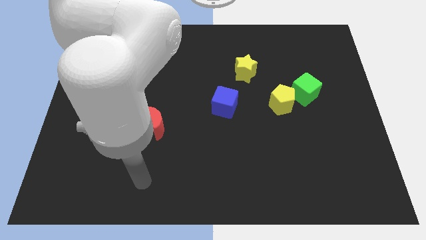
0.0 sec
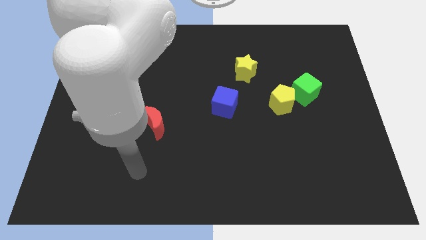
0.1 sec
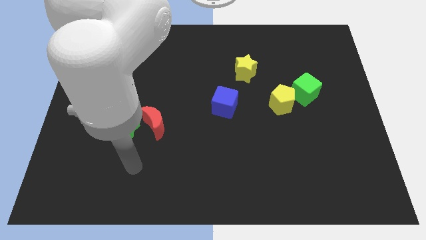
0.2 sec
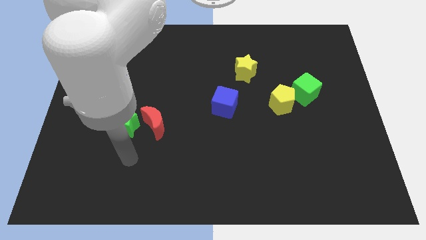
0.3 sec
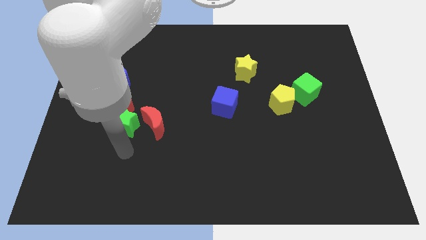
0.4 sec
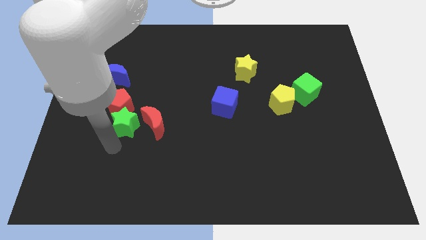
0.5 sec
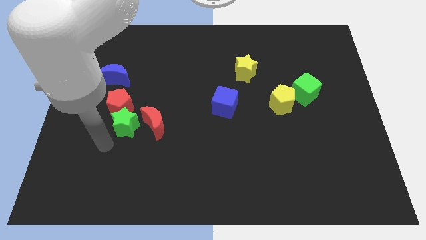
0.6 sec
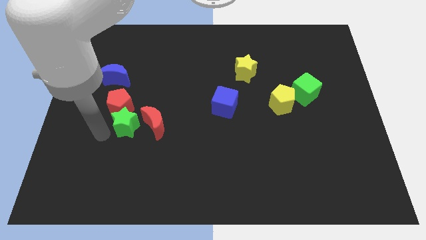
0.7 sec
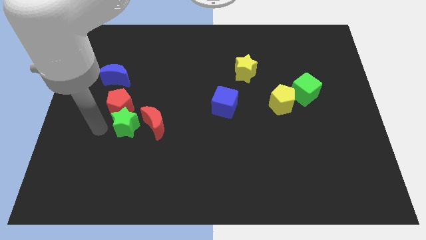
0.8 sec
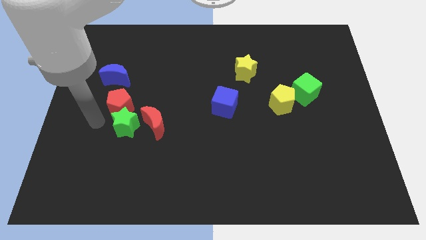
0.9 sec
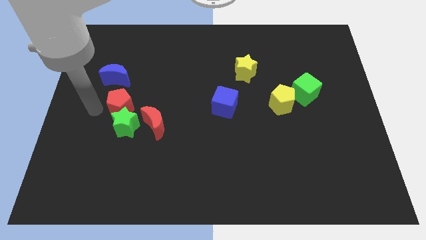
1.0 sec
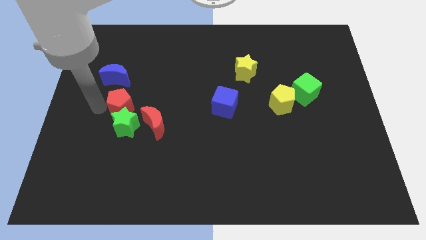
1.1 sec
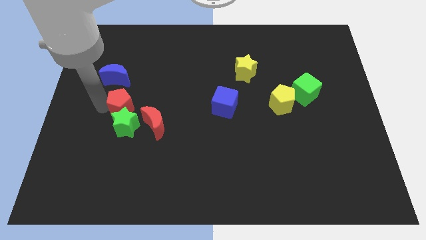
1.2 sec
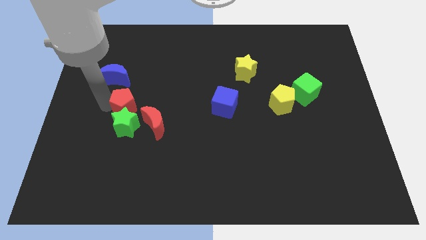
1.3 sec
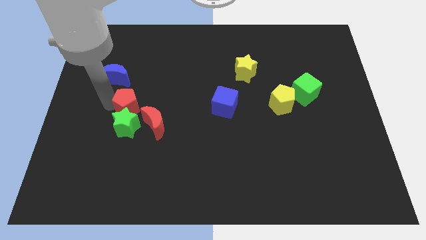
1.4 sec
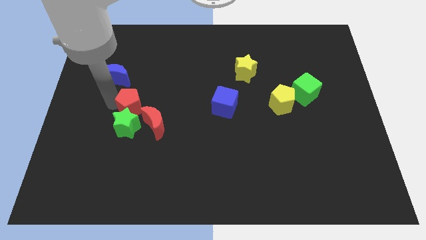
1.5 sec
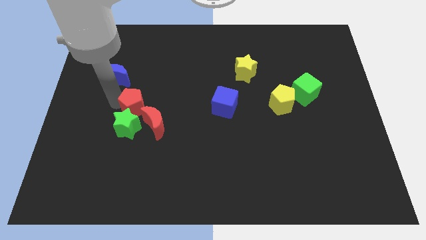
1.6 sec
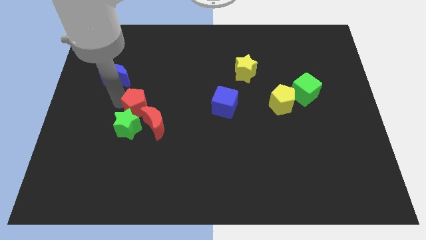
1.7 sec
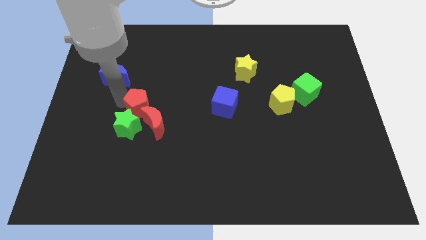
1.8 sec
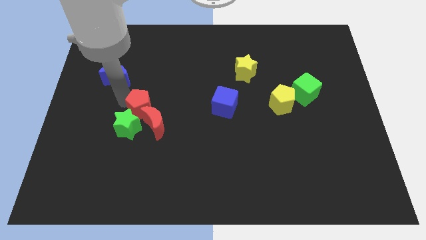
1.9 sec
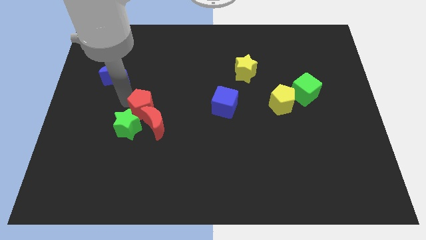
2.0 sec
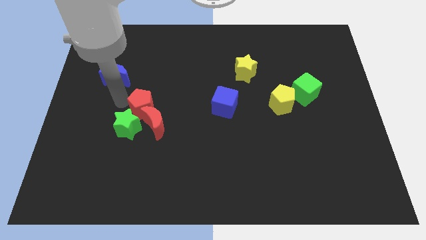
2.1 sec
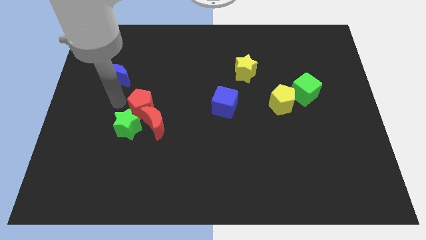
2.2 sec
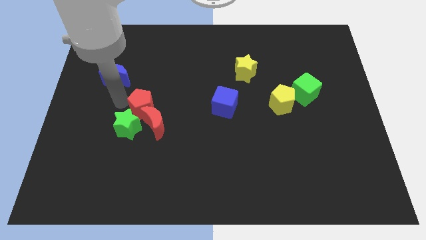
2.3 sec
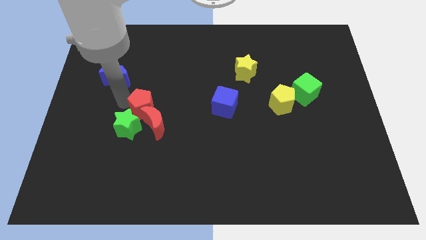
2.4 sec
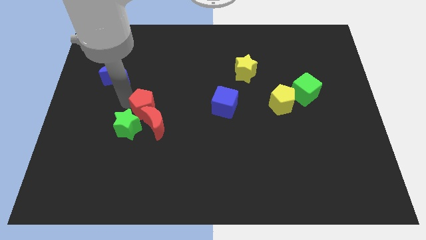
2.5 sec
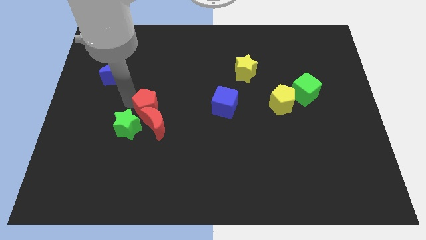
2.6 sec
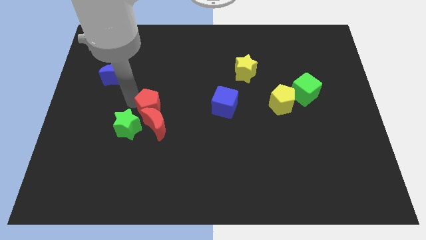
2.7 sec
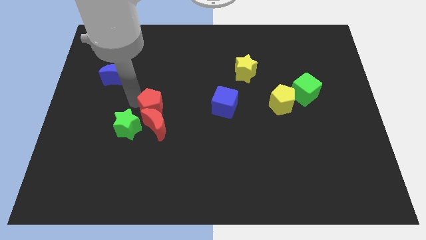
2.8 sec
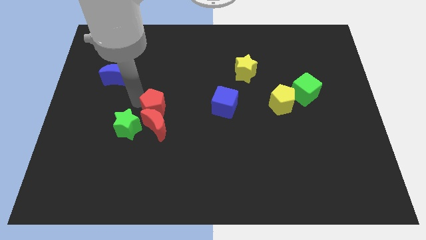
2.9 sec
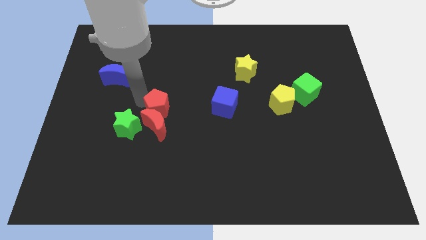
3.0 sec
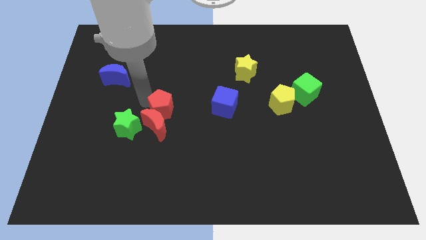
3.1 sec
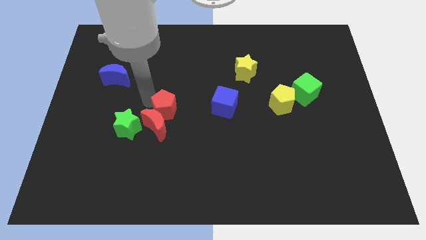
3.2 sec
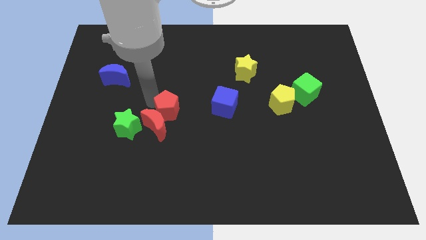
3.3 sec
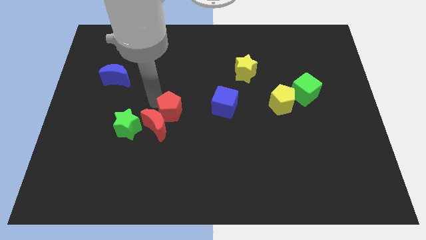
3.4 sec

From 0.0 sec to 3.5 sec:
push the red pentagon a little downwards and then right

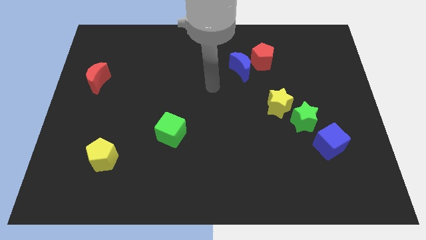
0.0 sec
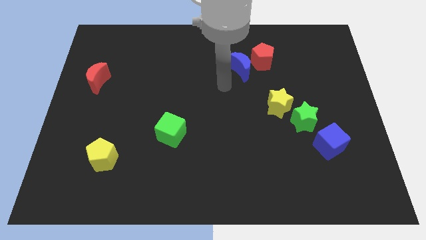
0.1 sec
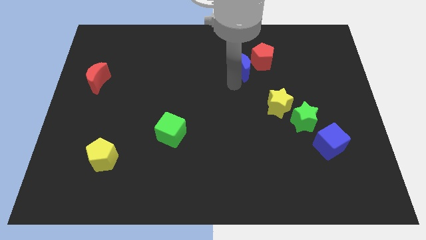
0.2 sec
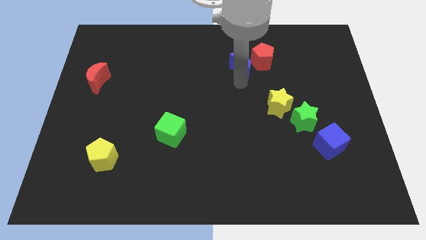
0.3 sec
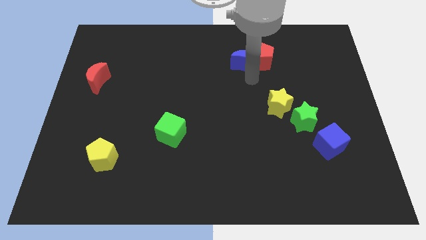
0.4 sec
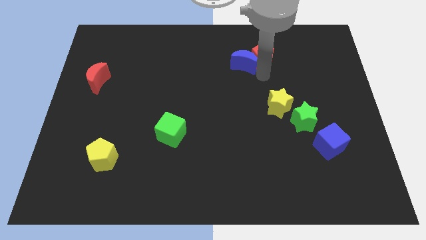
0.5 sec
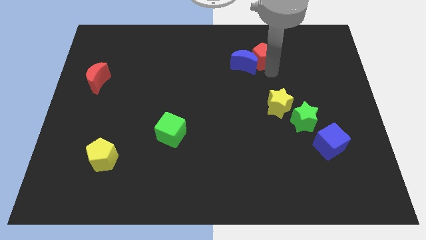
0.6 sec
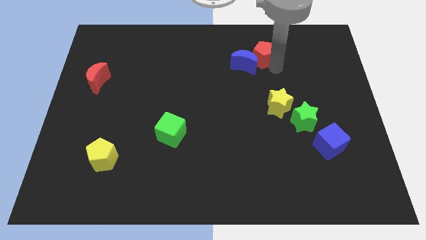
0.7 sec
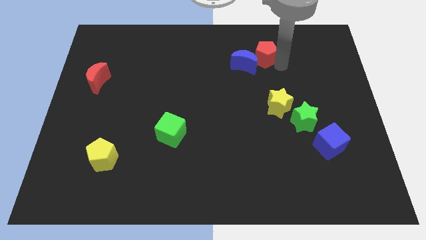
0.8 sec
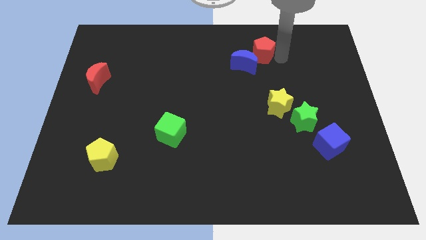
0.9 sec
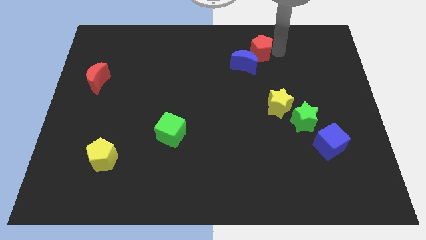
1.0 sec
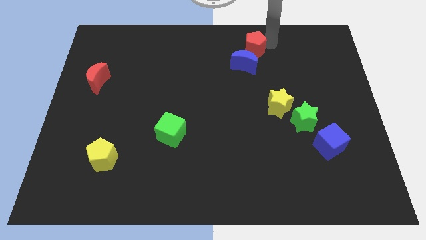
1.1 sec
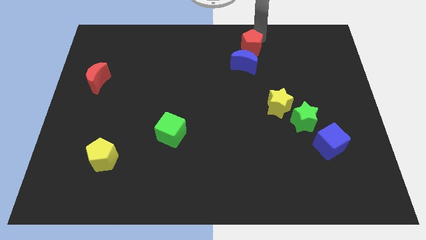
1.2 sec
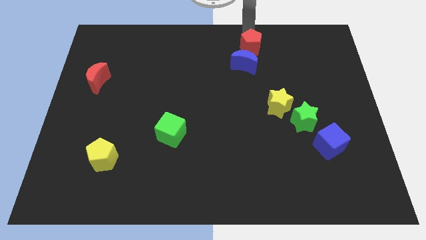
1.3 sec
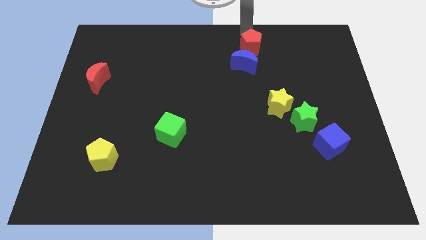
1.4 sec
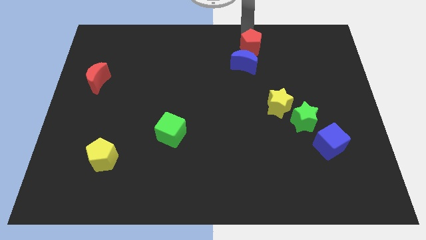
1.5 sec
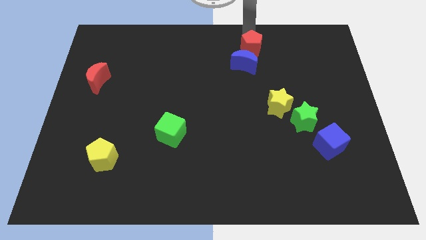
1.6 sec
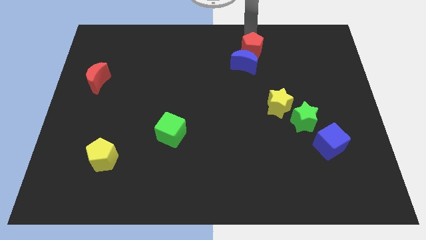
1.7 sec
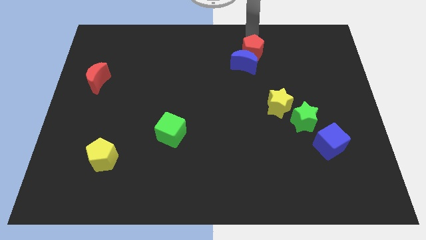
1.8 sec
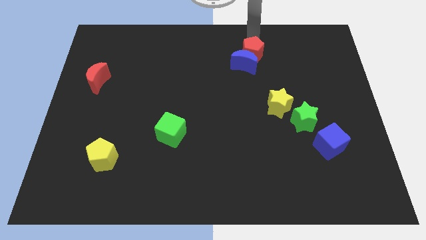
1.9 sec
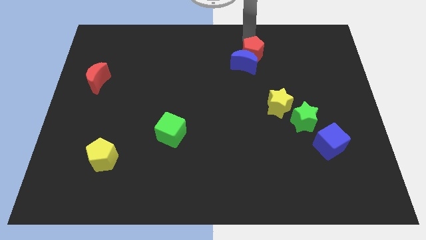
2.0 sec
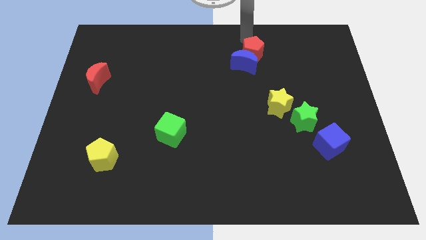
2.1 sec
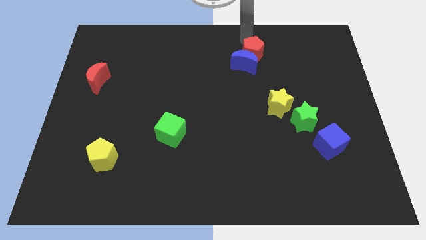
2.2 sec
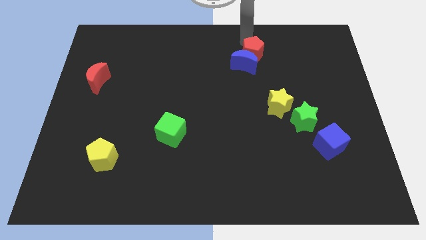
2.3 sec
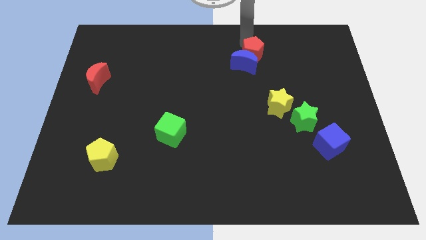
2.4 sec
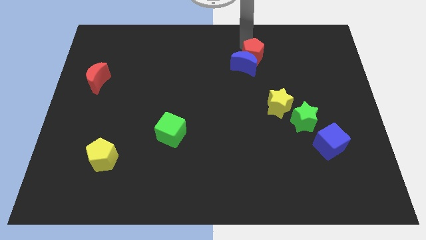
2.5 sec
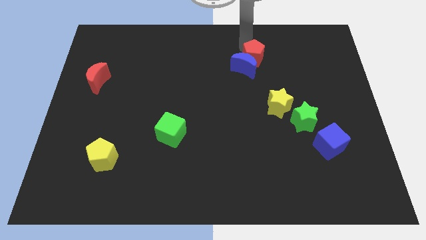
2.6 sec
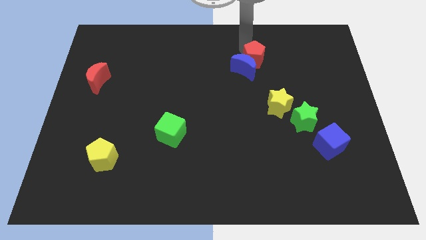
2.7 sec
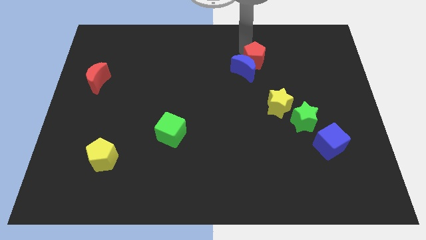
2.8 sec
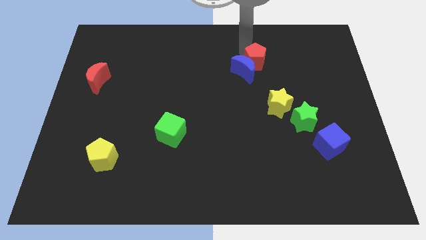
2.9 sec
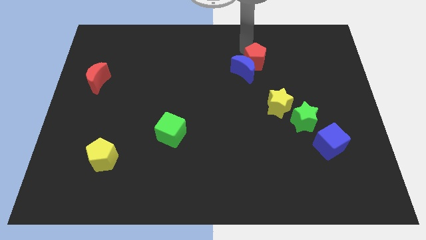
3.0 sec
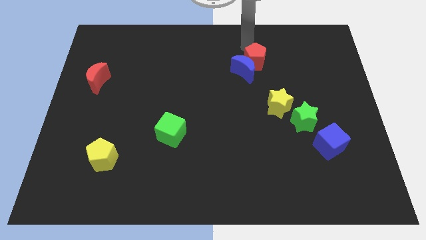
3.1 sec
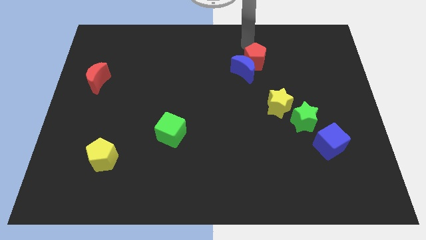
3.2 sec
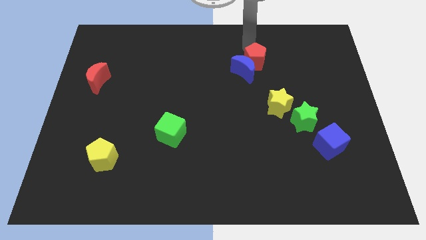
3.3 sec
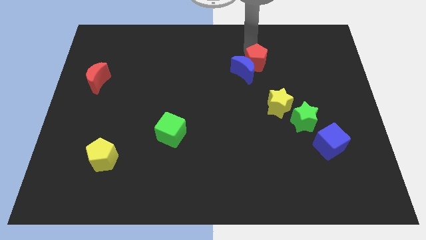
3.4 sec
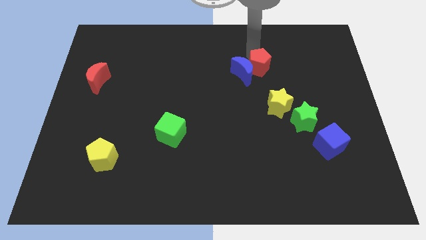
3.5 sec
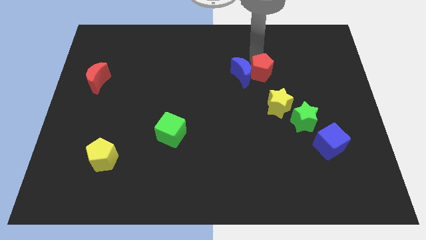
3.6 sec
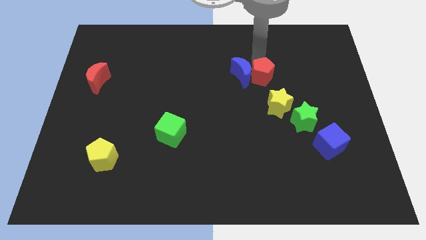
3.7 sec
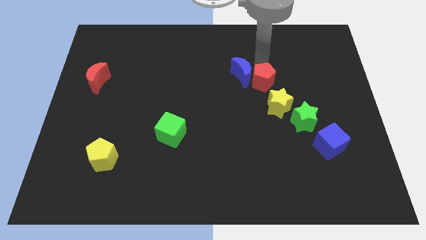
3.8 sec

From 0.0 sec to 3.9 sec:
slightly move the red pentagon downwards

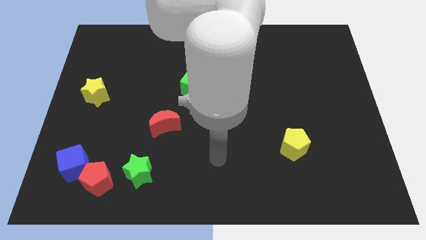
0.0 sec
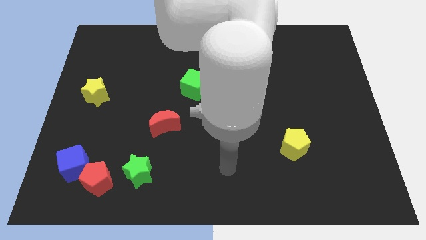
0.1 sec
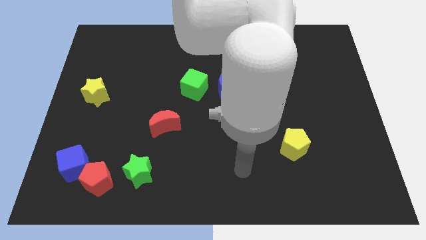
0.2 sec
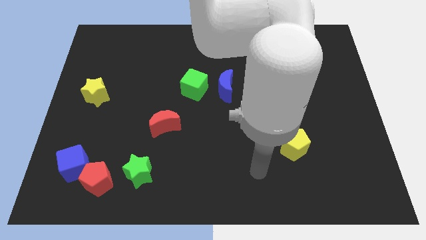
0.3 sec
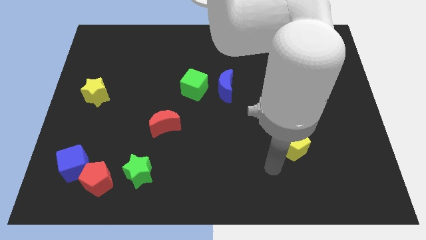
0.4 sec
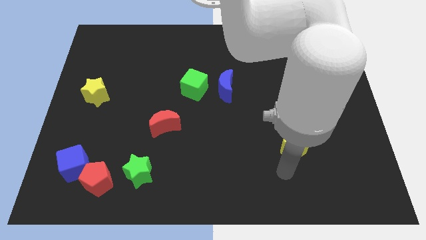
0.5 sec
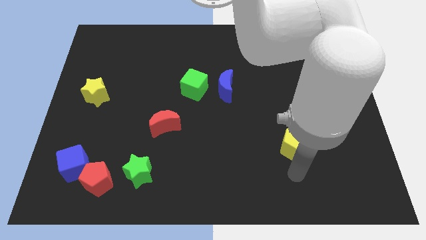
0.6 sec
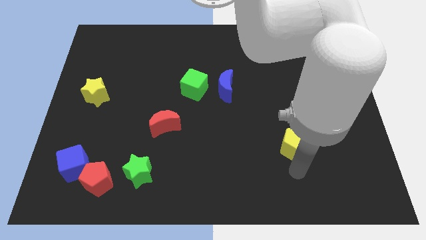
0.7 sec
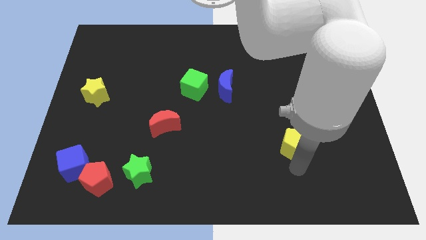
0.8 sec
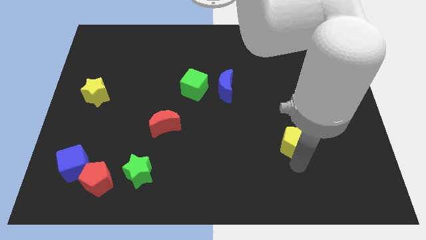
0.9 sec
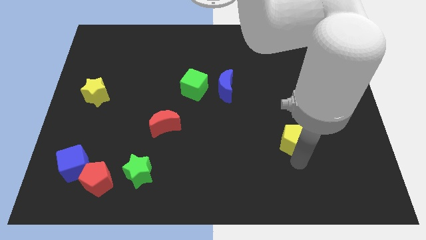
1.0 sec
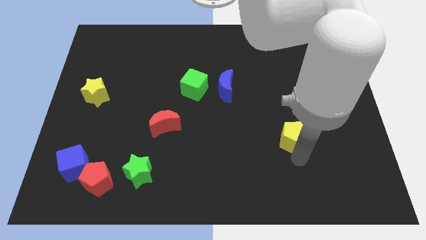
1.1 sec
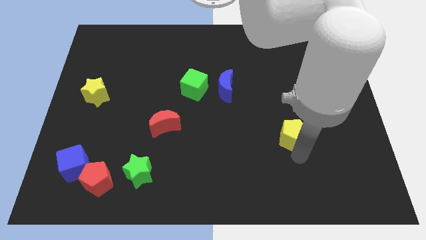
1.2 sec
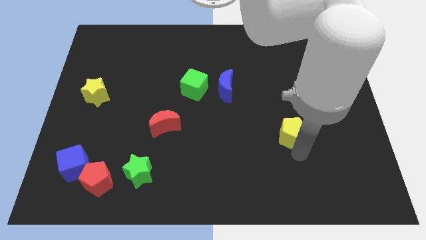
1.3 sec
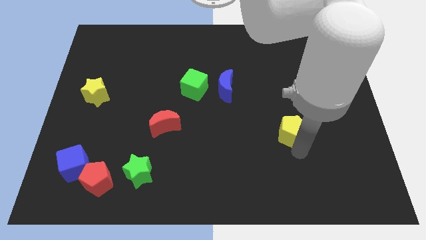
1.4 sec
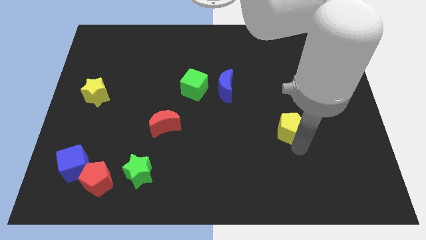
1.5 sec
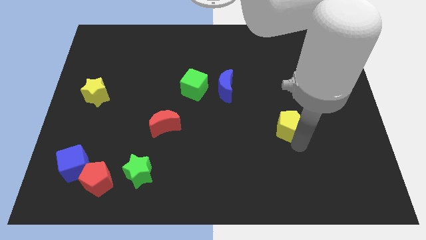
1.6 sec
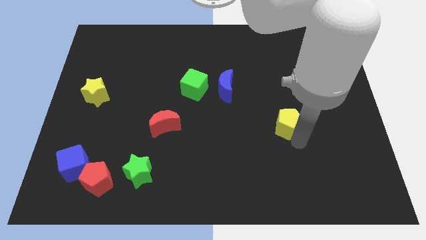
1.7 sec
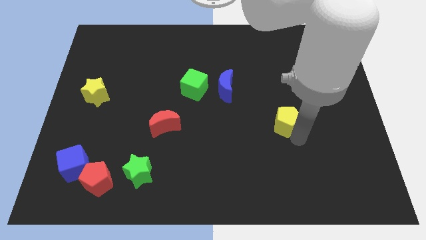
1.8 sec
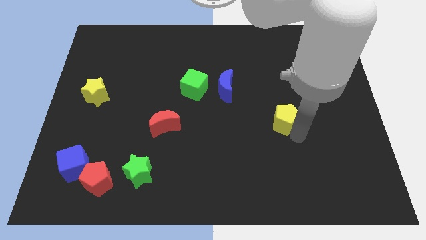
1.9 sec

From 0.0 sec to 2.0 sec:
slightly push the yellow pentagon upwards
